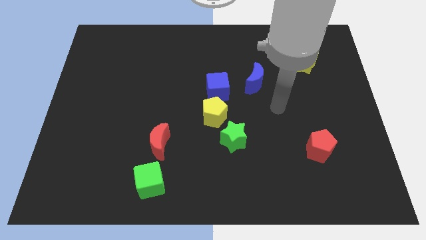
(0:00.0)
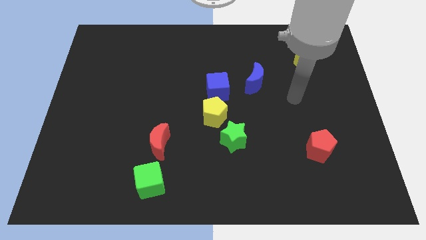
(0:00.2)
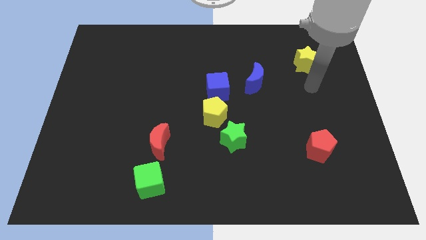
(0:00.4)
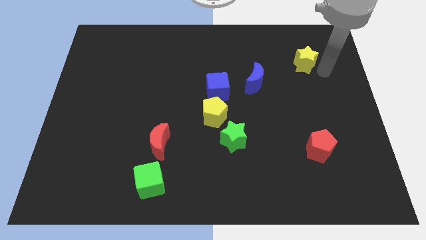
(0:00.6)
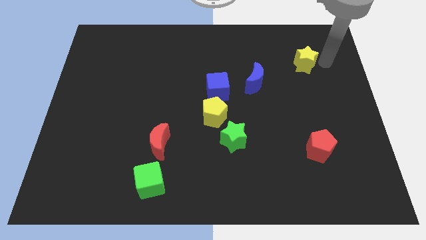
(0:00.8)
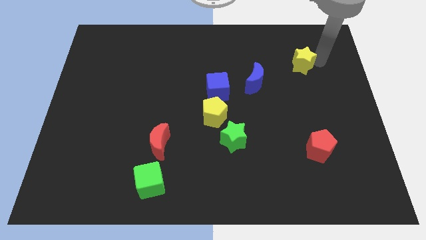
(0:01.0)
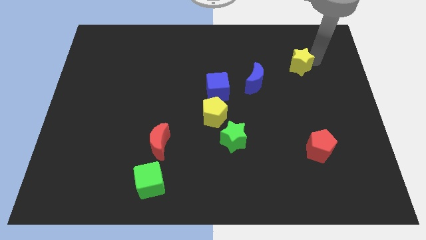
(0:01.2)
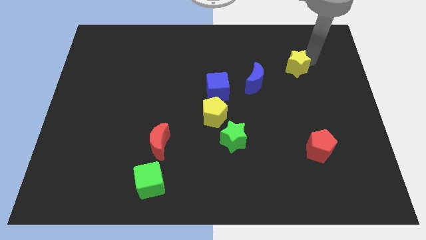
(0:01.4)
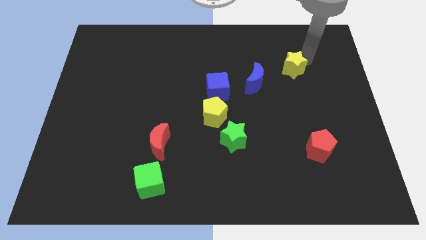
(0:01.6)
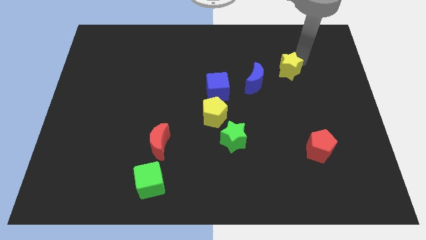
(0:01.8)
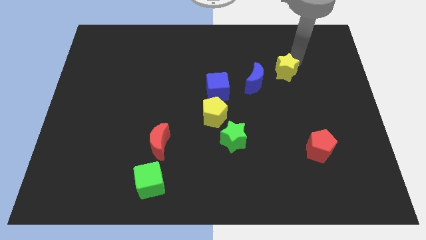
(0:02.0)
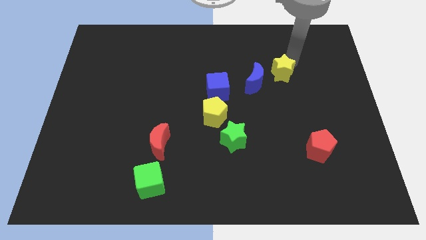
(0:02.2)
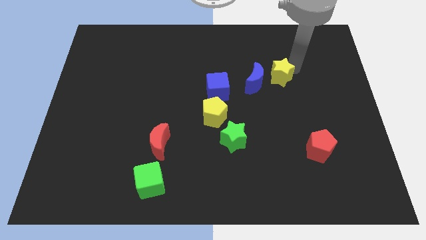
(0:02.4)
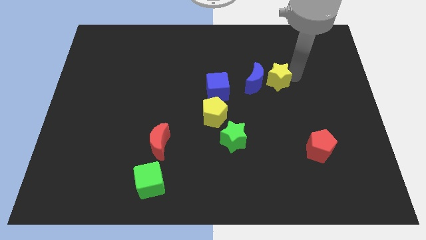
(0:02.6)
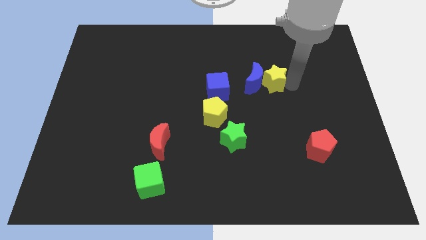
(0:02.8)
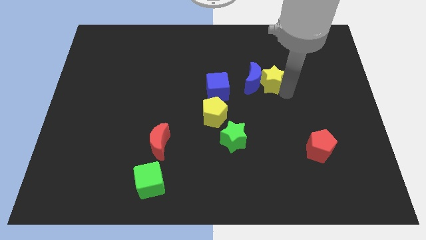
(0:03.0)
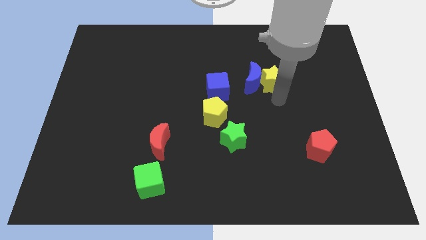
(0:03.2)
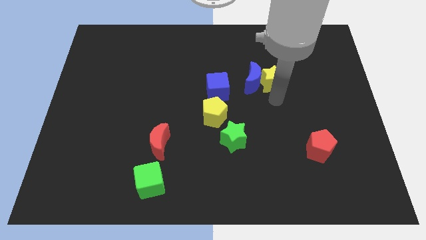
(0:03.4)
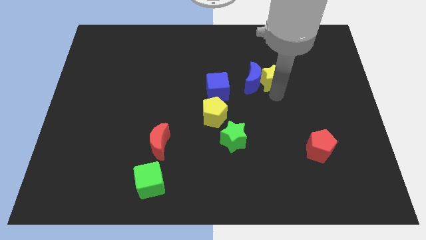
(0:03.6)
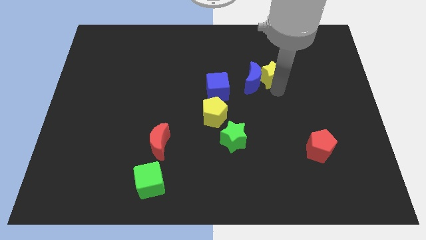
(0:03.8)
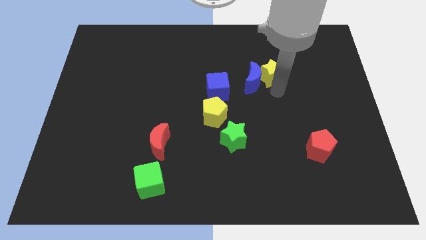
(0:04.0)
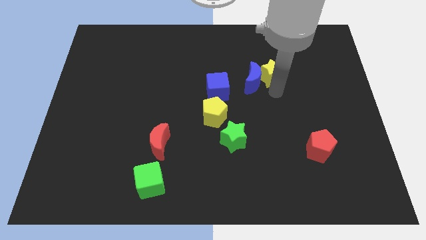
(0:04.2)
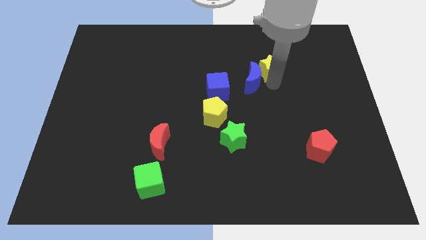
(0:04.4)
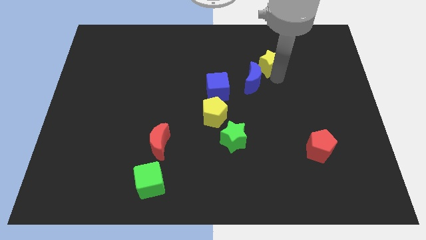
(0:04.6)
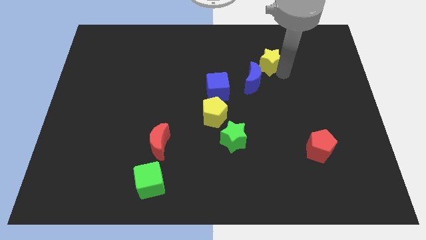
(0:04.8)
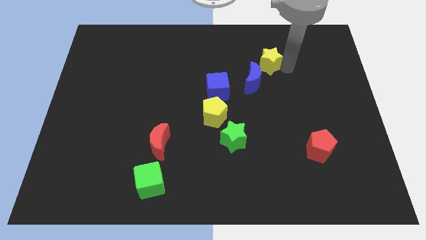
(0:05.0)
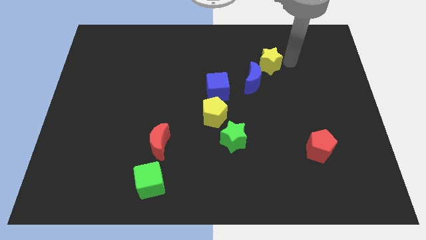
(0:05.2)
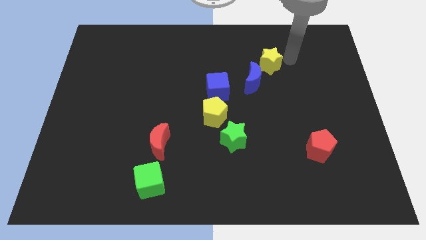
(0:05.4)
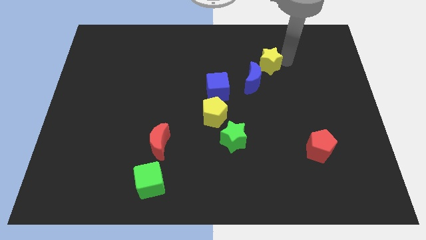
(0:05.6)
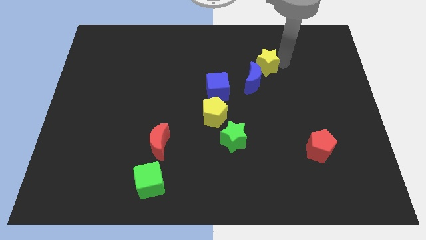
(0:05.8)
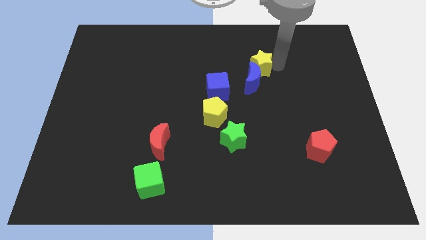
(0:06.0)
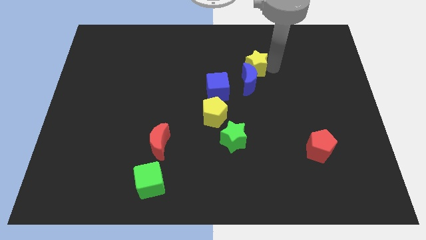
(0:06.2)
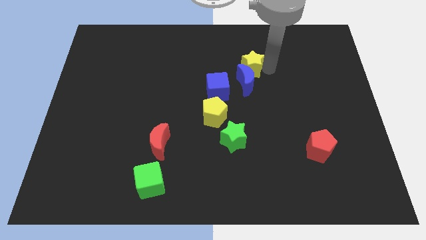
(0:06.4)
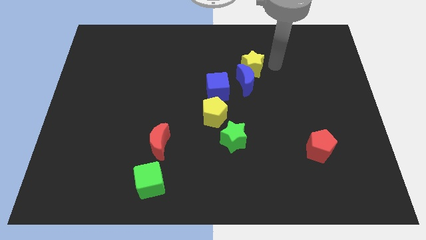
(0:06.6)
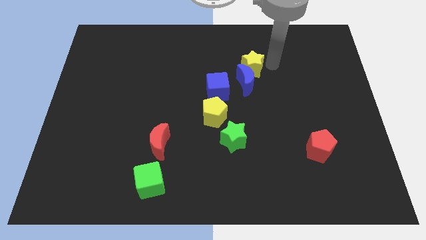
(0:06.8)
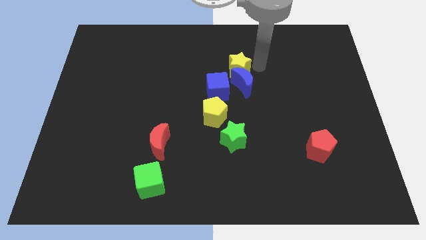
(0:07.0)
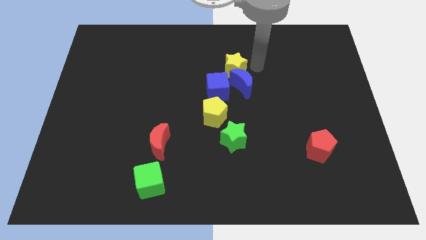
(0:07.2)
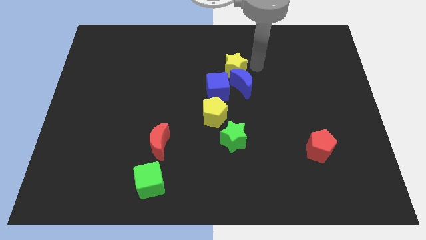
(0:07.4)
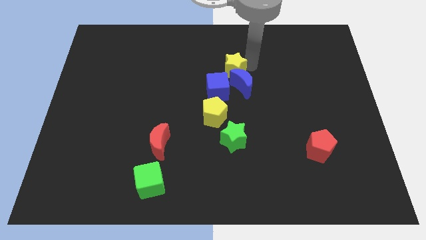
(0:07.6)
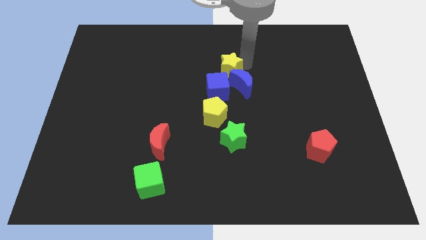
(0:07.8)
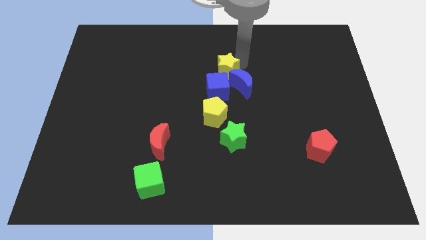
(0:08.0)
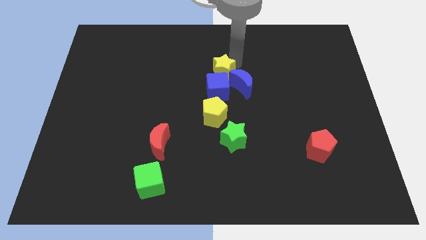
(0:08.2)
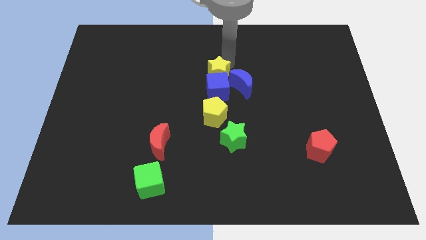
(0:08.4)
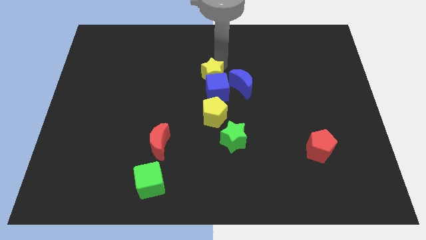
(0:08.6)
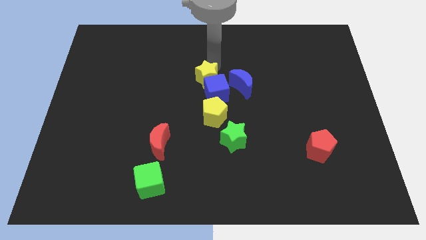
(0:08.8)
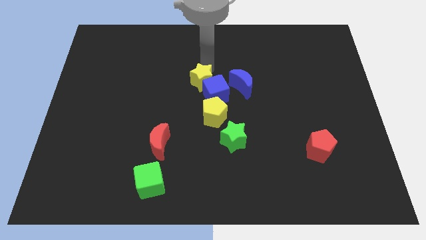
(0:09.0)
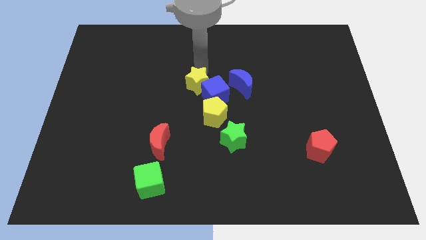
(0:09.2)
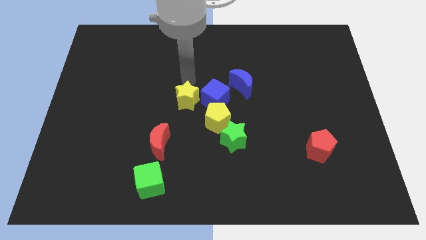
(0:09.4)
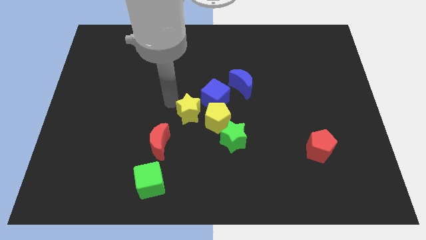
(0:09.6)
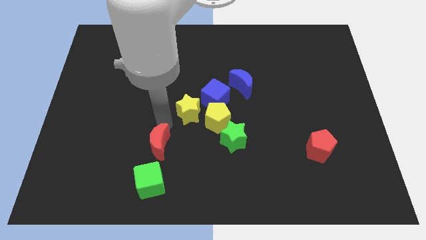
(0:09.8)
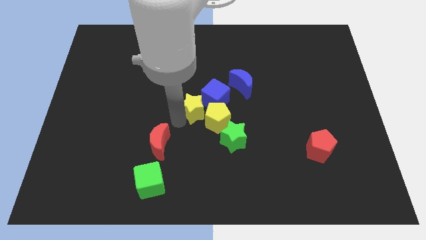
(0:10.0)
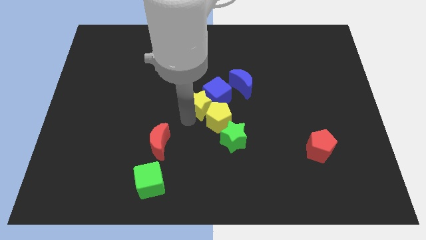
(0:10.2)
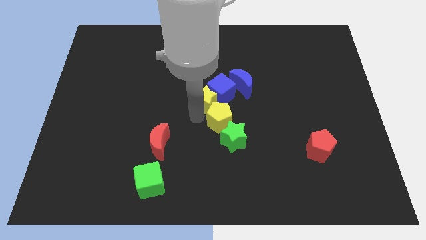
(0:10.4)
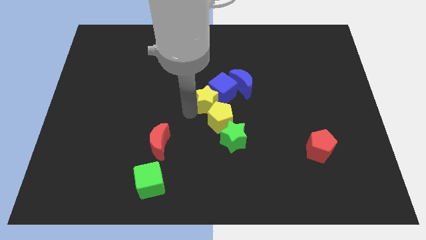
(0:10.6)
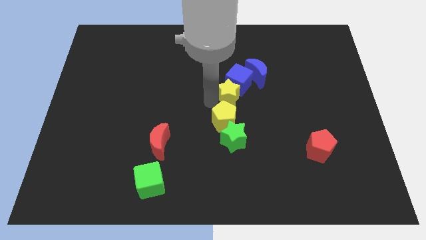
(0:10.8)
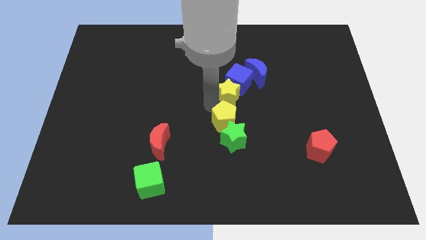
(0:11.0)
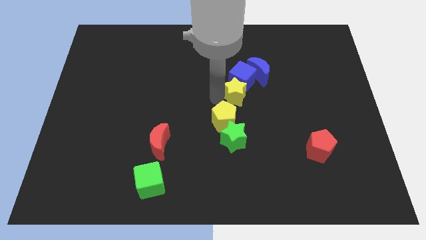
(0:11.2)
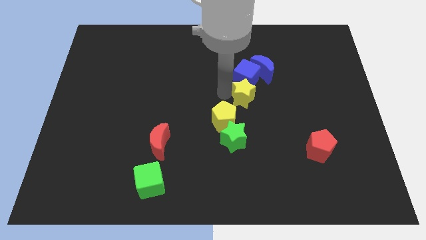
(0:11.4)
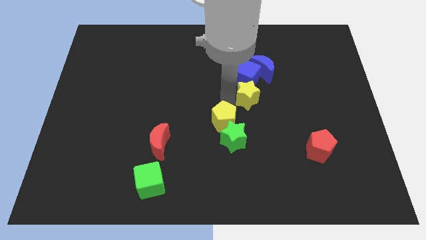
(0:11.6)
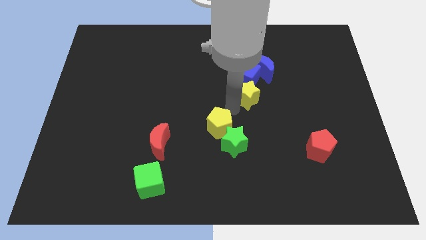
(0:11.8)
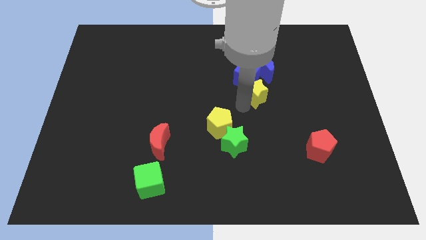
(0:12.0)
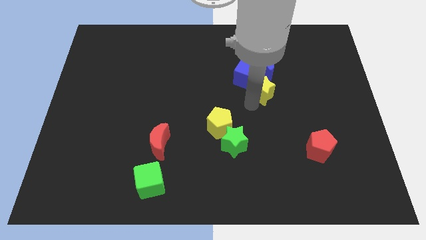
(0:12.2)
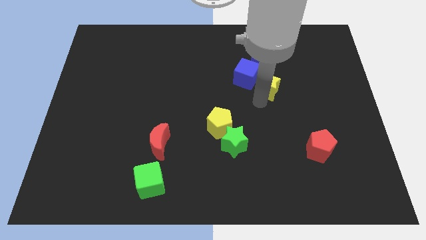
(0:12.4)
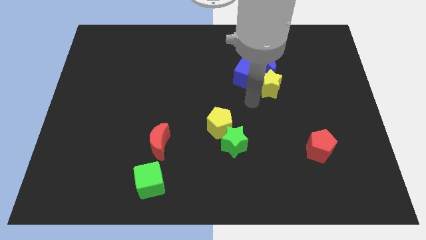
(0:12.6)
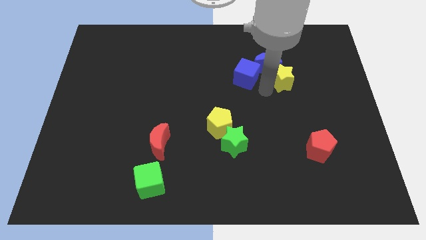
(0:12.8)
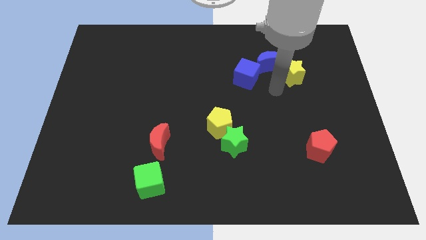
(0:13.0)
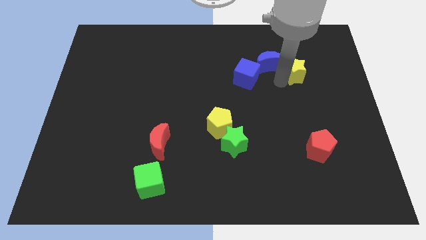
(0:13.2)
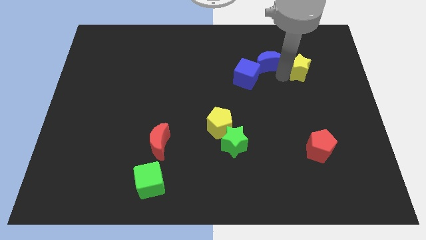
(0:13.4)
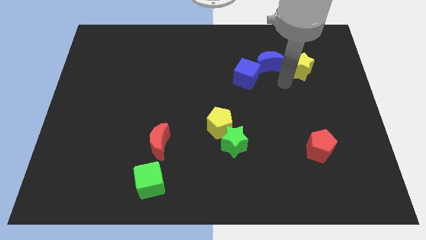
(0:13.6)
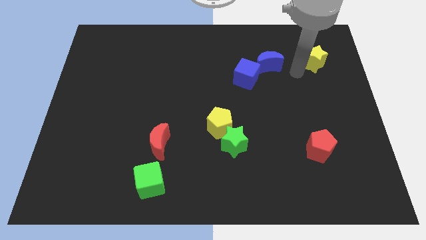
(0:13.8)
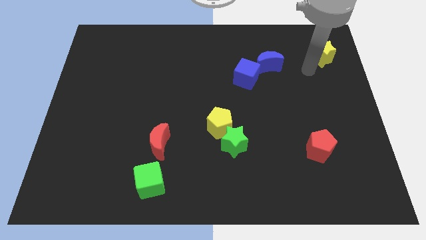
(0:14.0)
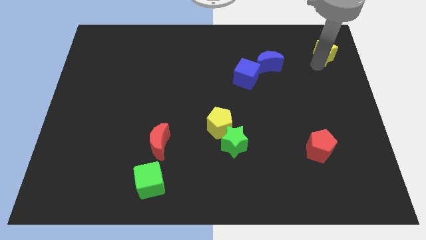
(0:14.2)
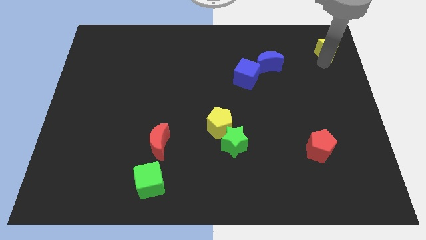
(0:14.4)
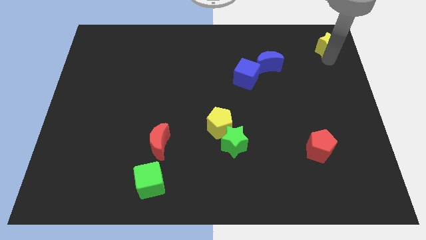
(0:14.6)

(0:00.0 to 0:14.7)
move the yellow star to the upper right corner
